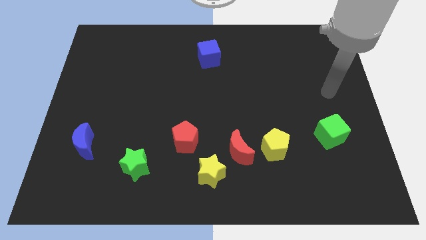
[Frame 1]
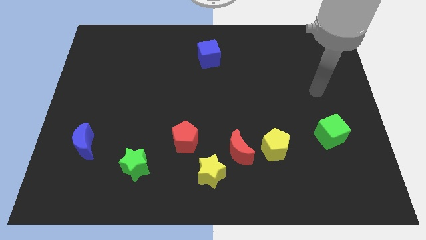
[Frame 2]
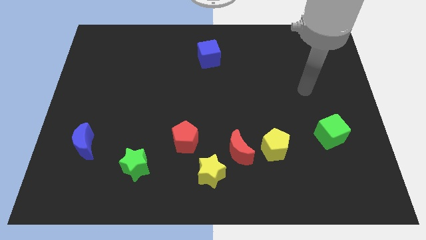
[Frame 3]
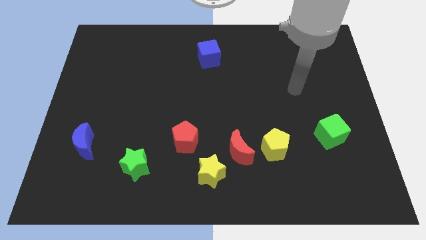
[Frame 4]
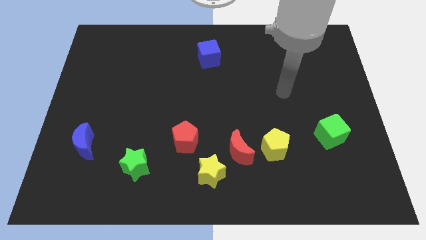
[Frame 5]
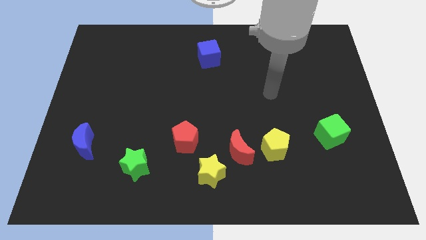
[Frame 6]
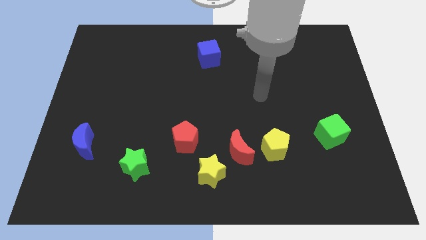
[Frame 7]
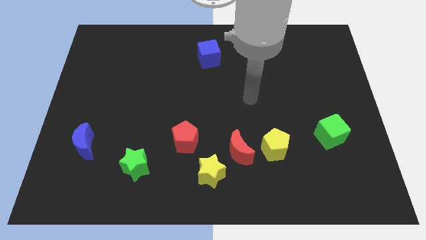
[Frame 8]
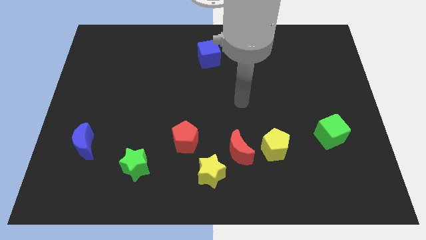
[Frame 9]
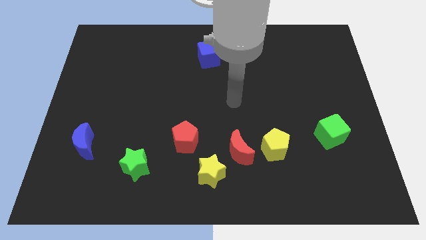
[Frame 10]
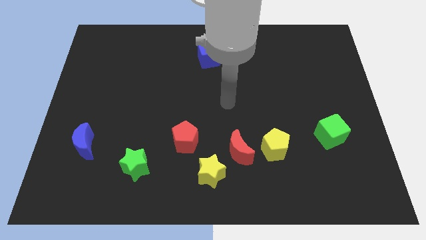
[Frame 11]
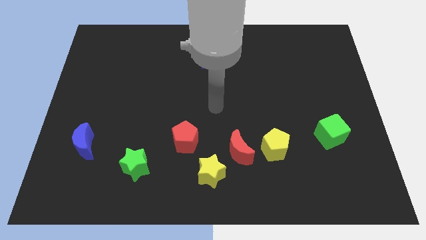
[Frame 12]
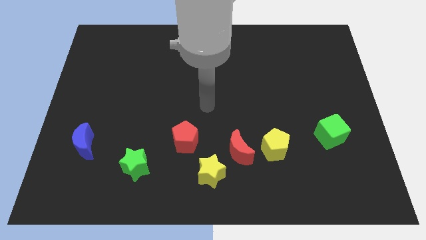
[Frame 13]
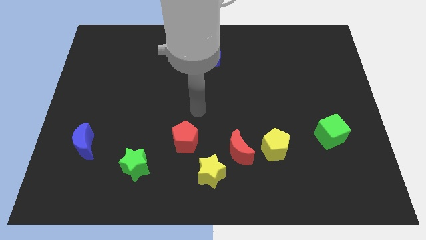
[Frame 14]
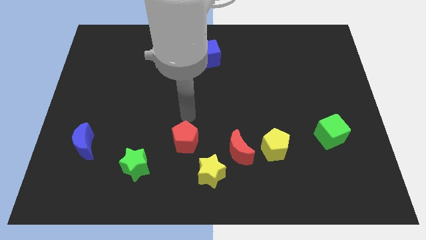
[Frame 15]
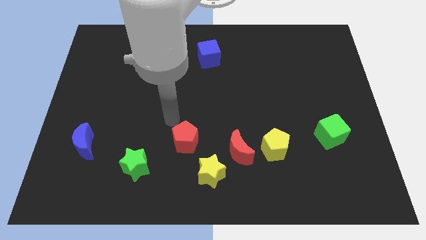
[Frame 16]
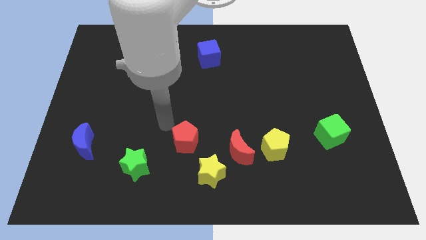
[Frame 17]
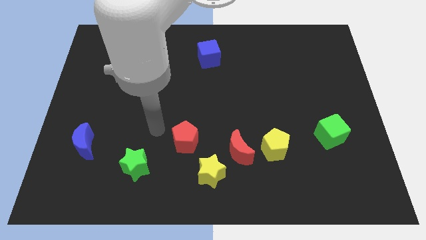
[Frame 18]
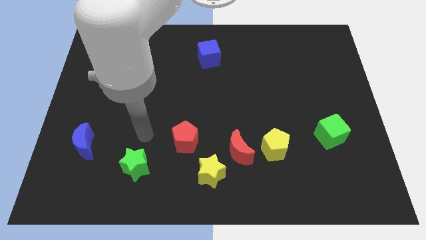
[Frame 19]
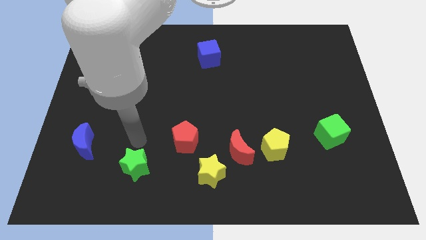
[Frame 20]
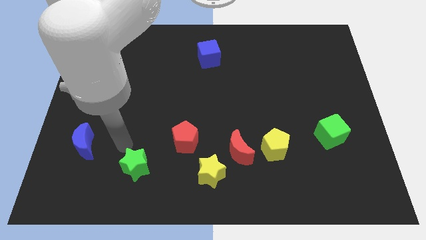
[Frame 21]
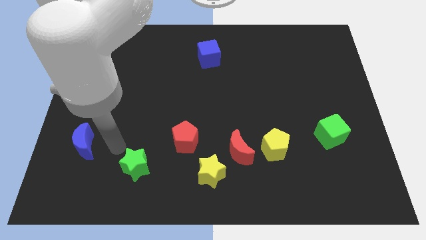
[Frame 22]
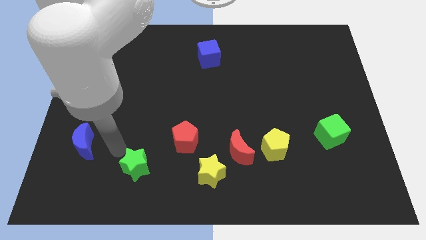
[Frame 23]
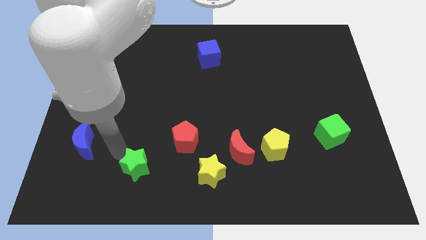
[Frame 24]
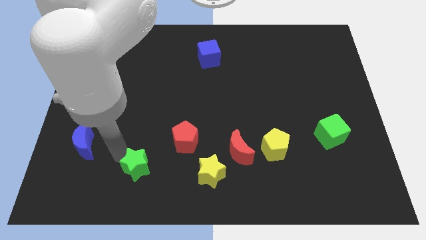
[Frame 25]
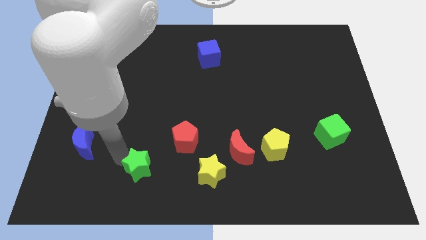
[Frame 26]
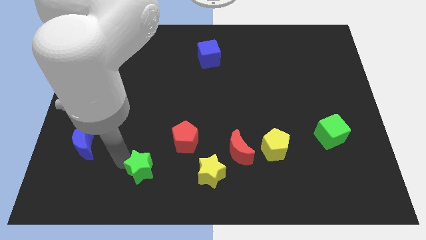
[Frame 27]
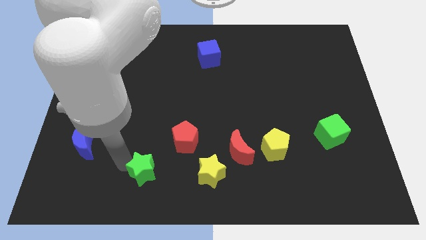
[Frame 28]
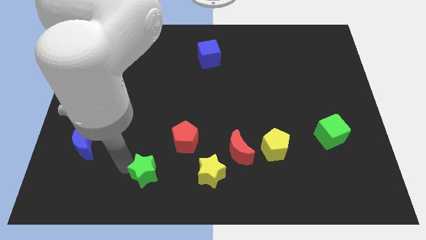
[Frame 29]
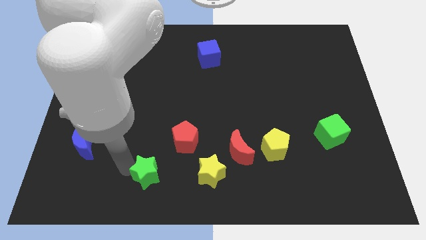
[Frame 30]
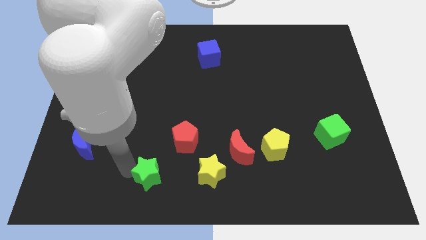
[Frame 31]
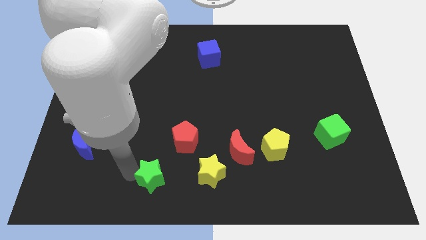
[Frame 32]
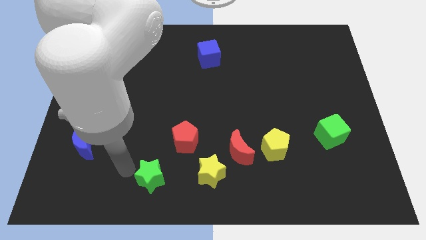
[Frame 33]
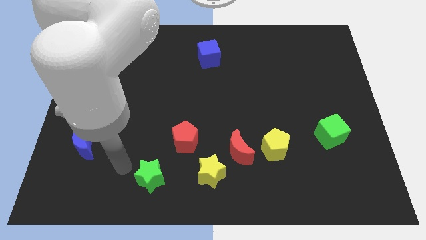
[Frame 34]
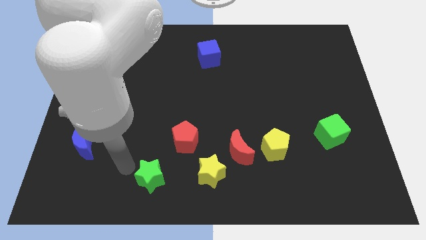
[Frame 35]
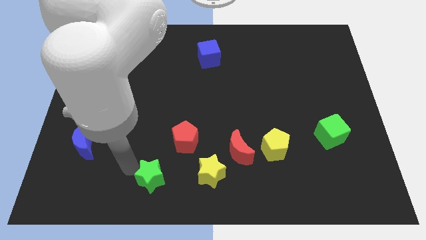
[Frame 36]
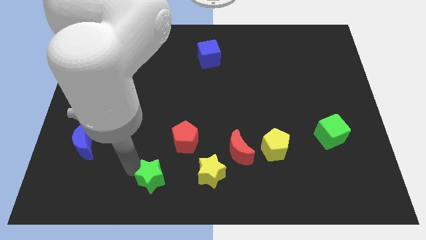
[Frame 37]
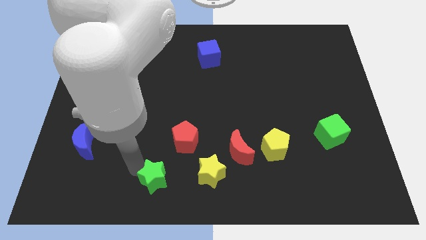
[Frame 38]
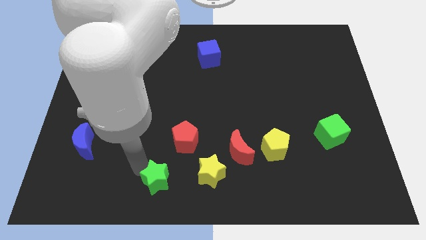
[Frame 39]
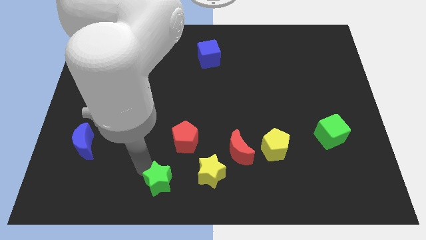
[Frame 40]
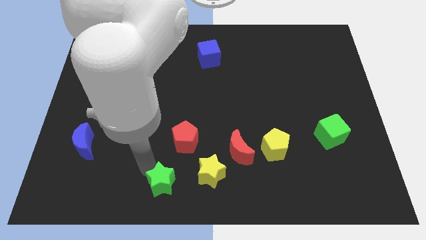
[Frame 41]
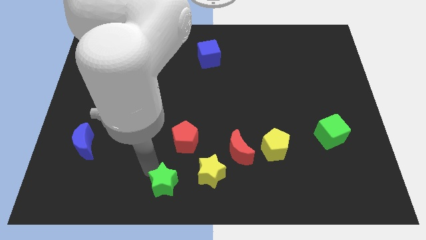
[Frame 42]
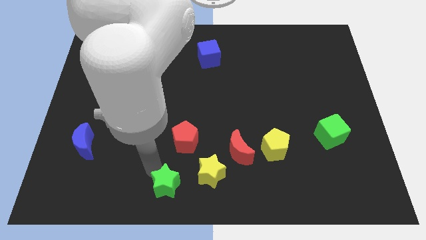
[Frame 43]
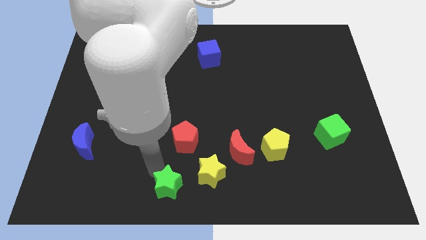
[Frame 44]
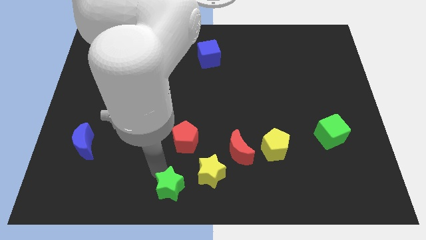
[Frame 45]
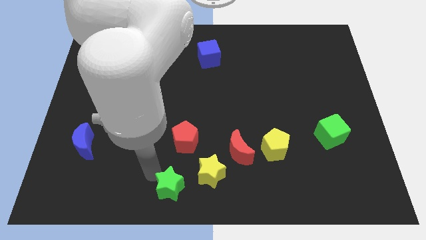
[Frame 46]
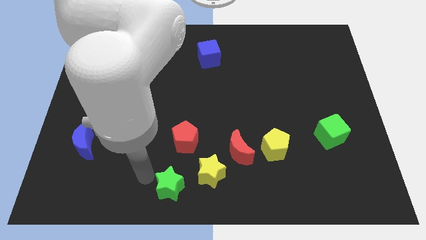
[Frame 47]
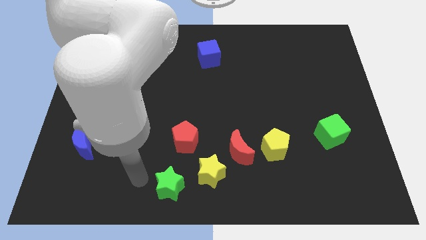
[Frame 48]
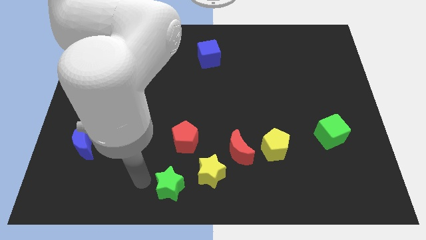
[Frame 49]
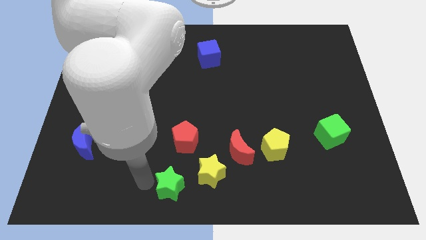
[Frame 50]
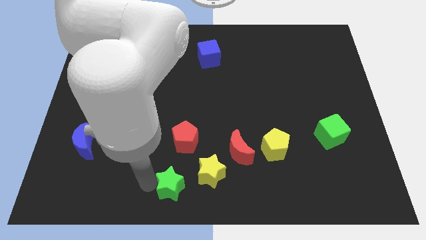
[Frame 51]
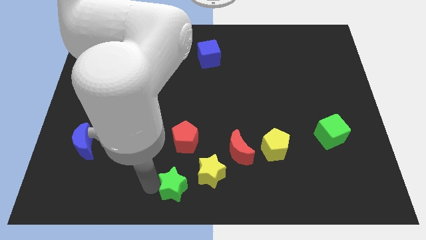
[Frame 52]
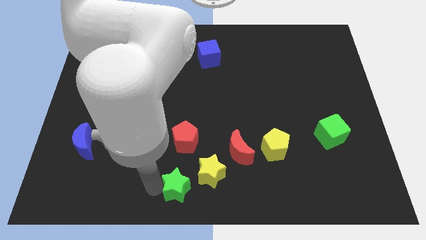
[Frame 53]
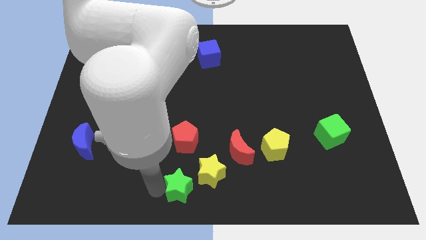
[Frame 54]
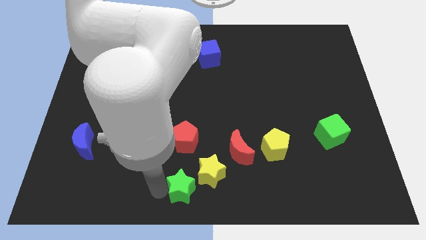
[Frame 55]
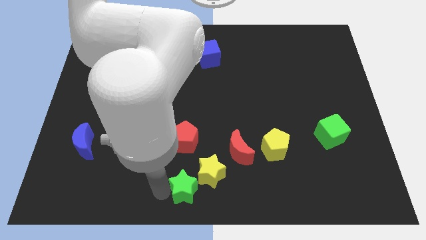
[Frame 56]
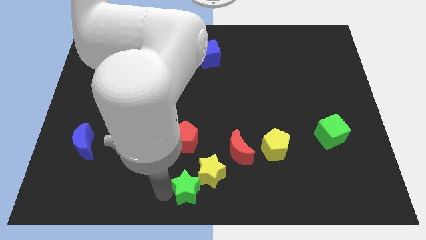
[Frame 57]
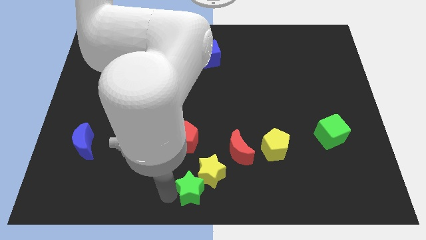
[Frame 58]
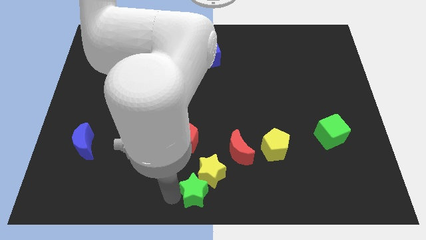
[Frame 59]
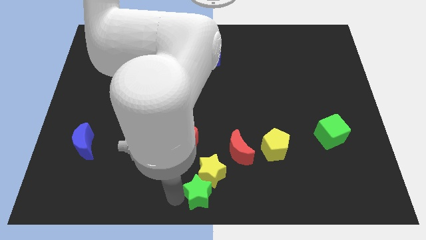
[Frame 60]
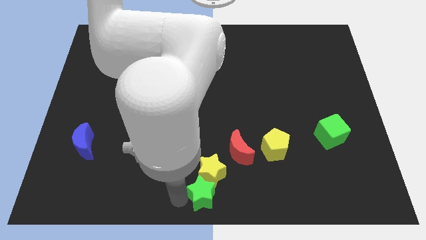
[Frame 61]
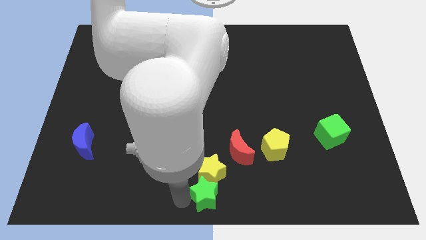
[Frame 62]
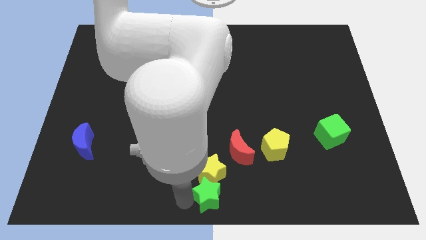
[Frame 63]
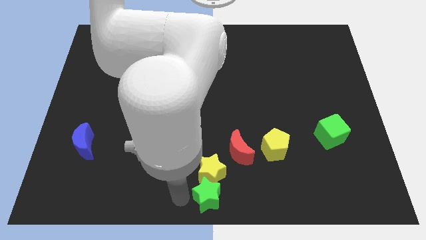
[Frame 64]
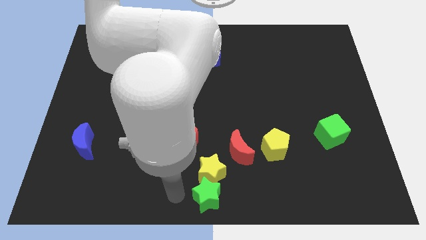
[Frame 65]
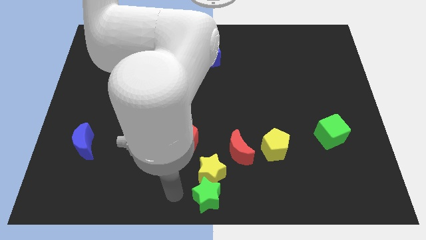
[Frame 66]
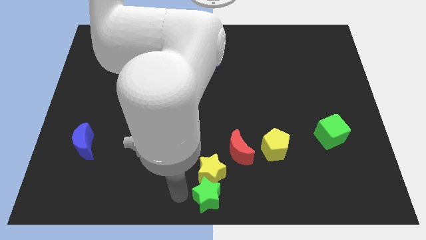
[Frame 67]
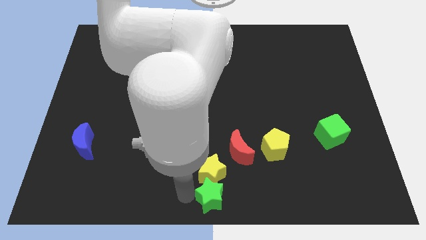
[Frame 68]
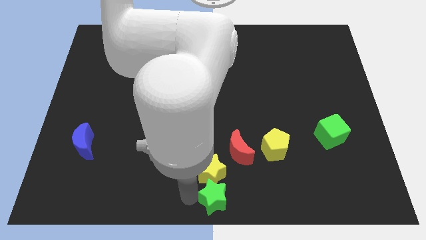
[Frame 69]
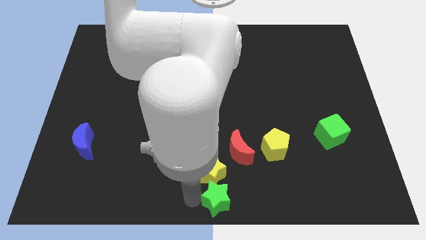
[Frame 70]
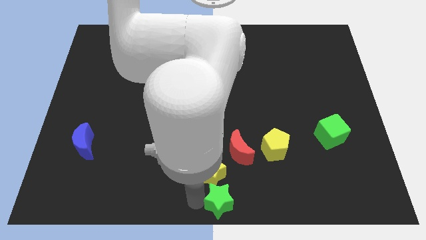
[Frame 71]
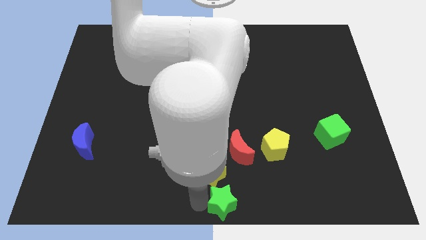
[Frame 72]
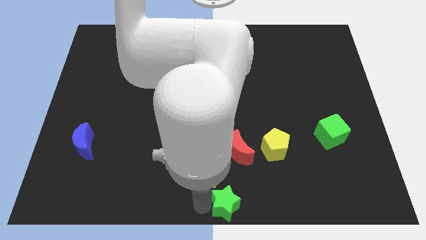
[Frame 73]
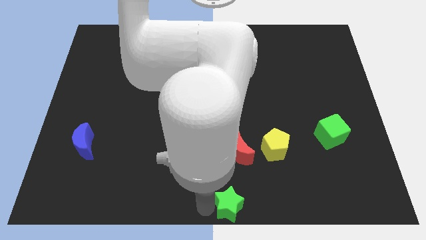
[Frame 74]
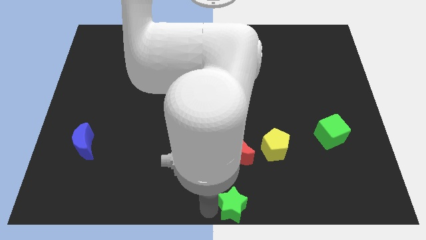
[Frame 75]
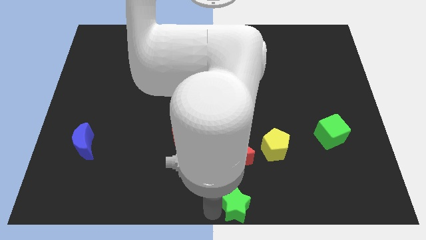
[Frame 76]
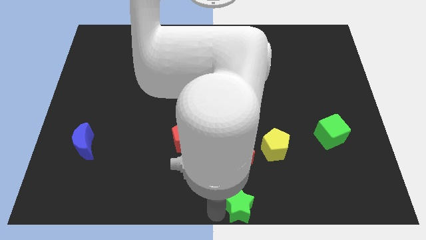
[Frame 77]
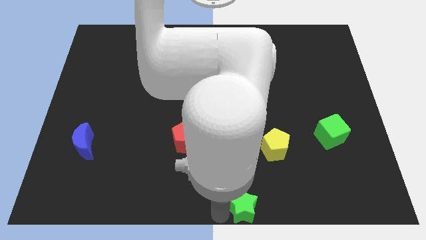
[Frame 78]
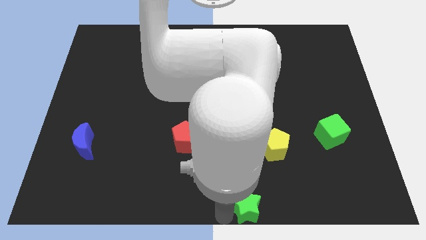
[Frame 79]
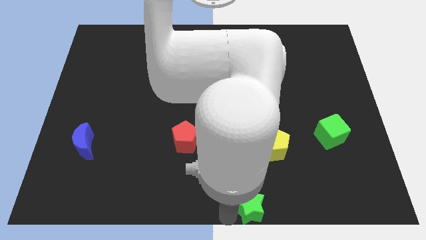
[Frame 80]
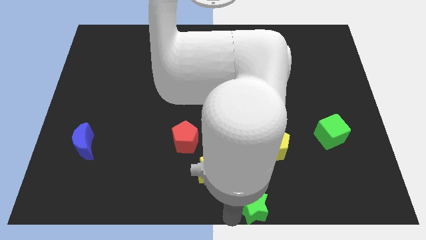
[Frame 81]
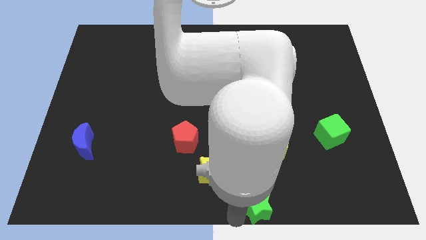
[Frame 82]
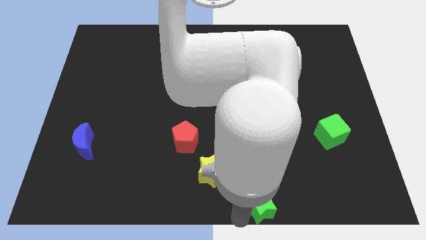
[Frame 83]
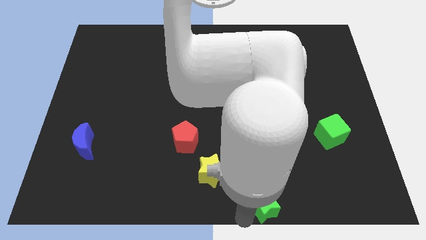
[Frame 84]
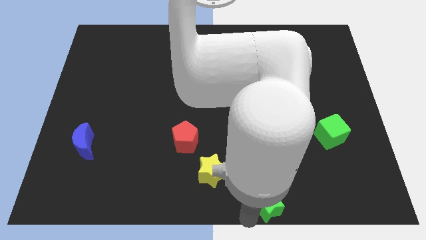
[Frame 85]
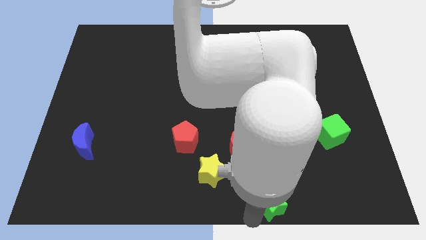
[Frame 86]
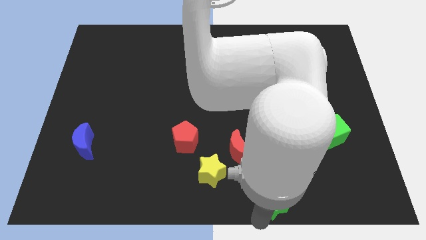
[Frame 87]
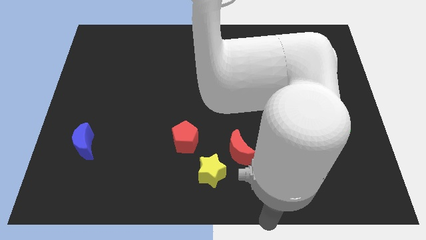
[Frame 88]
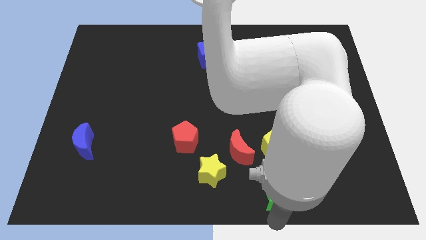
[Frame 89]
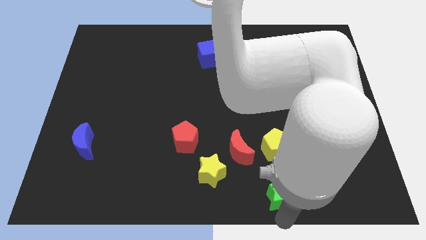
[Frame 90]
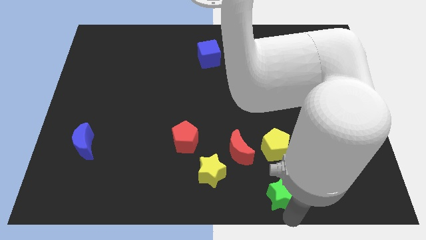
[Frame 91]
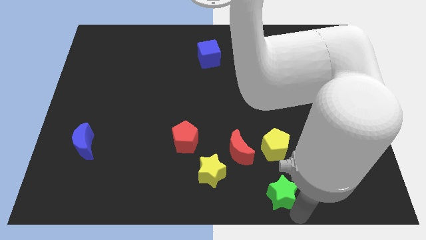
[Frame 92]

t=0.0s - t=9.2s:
push the green star to the bottom right of the red moon
